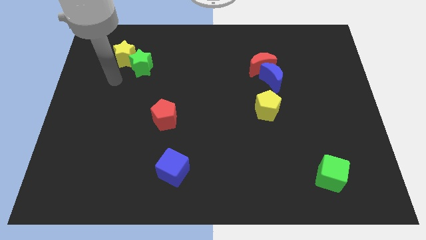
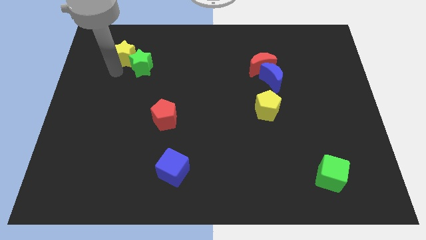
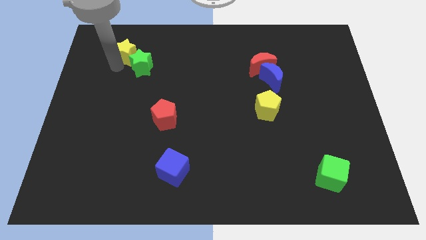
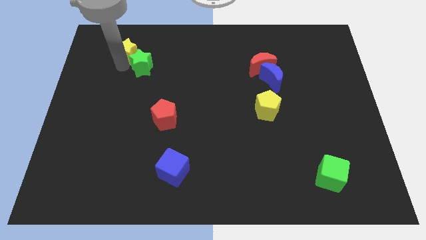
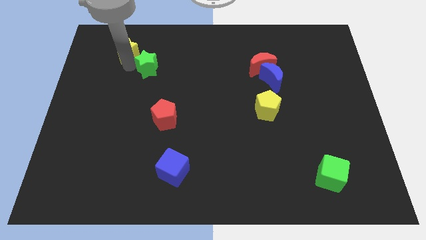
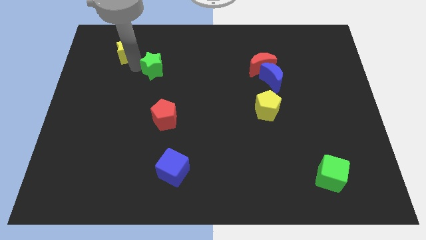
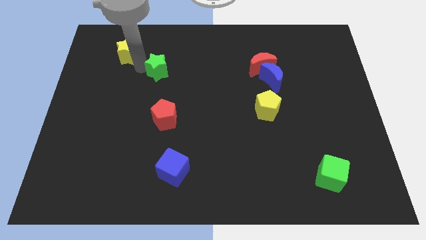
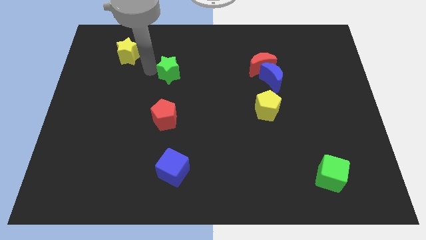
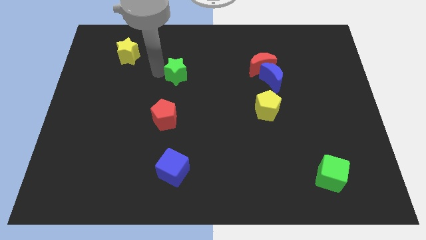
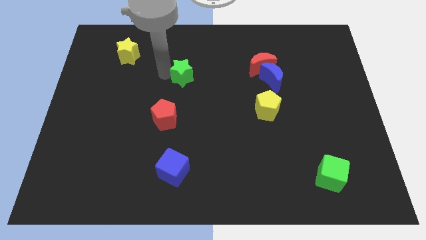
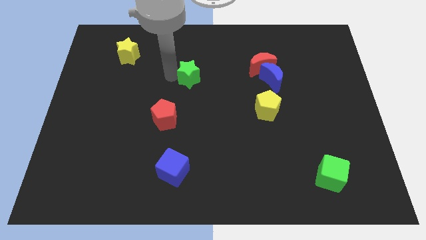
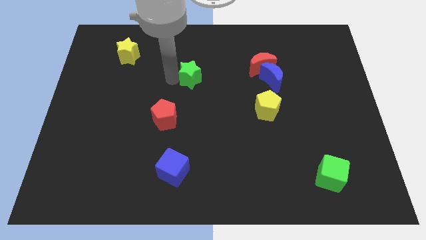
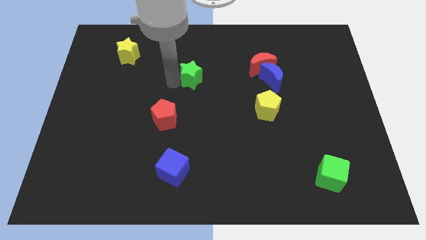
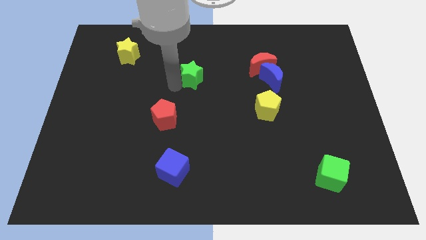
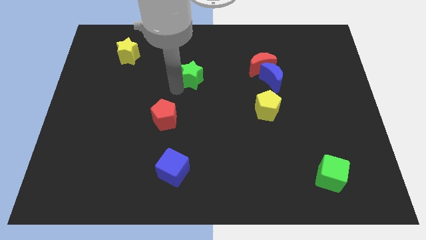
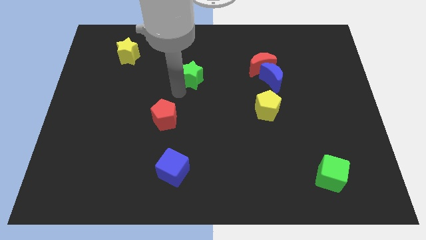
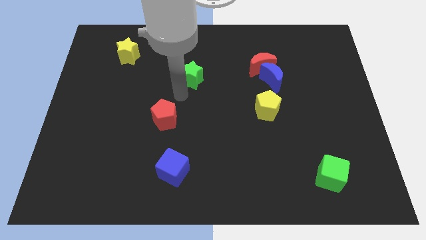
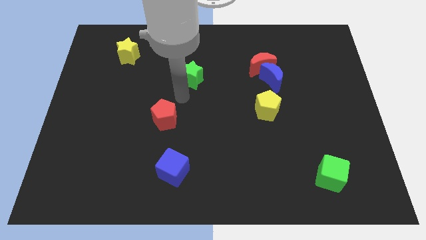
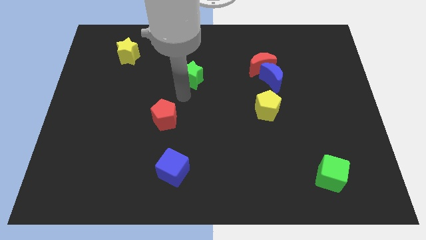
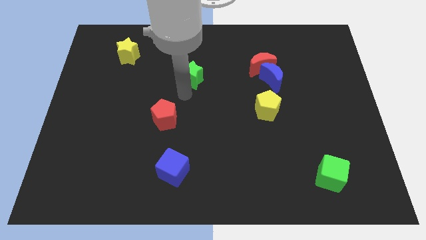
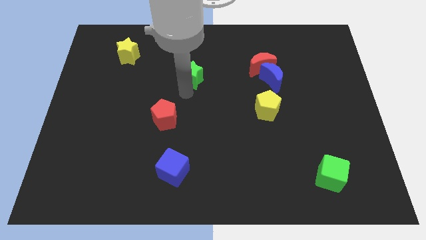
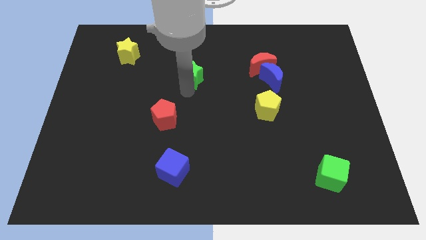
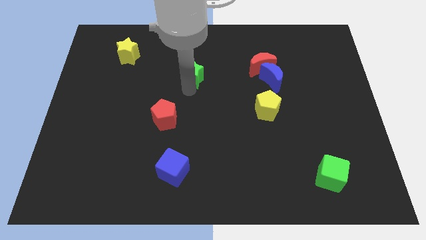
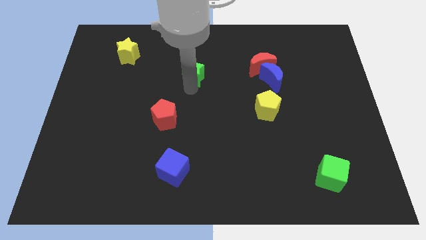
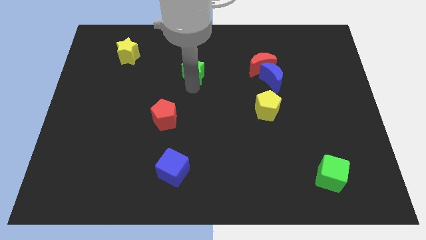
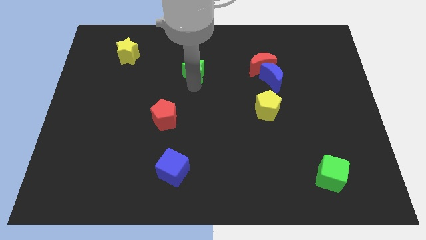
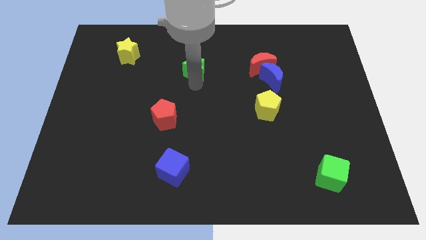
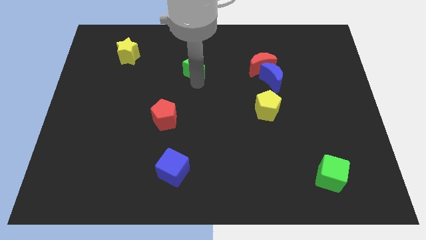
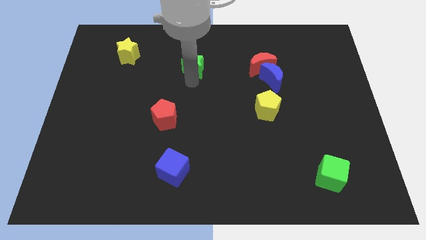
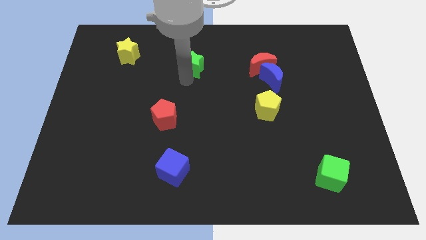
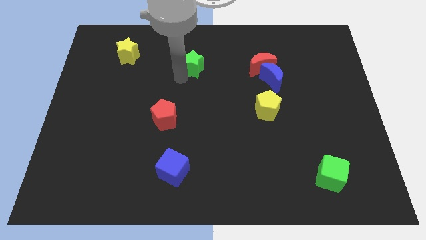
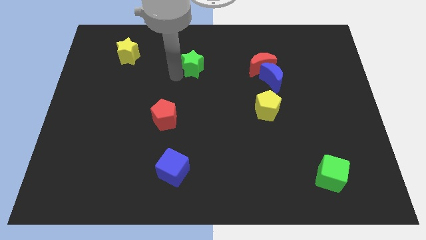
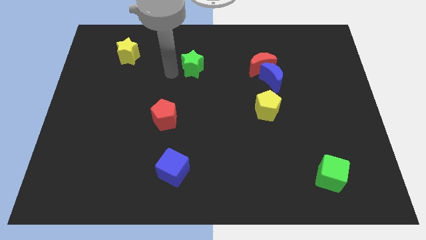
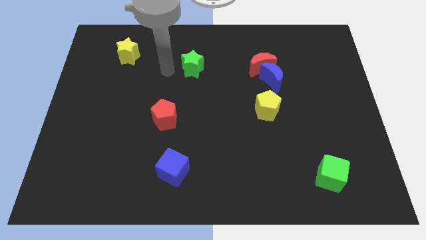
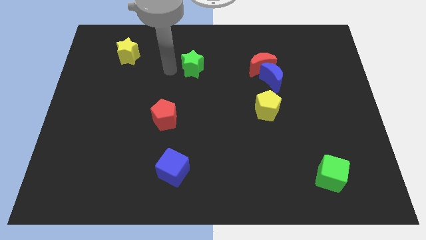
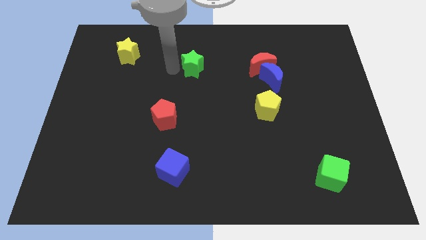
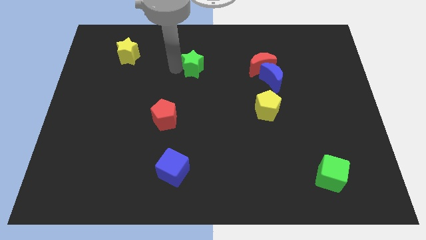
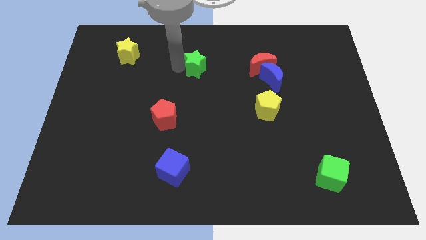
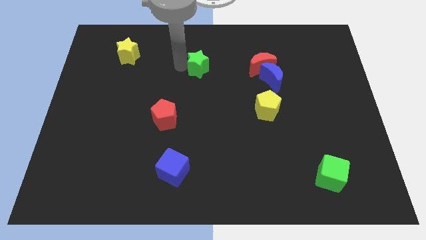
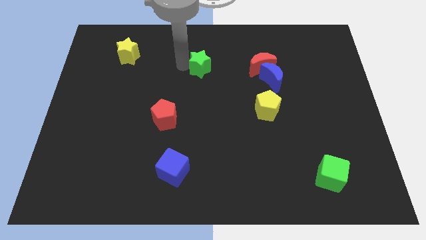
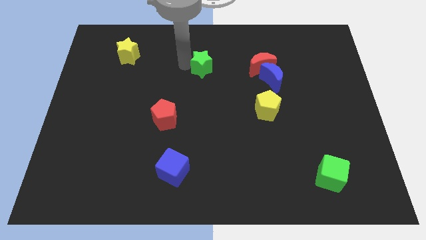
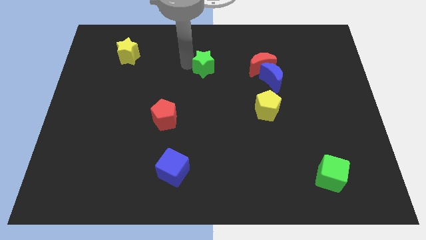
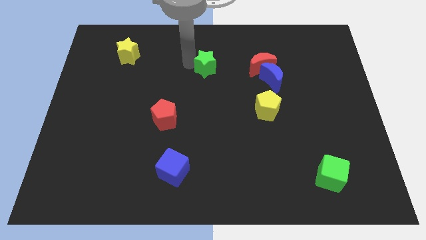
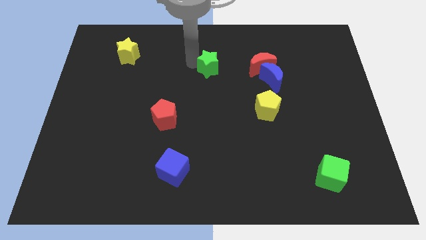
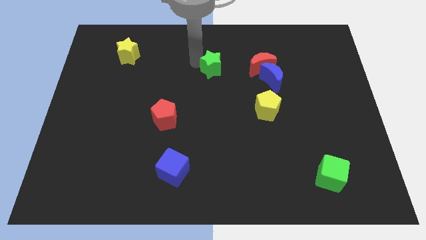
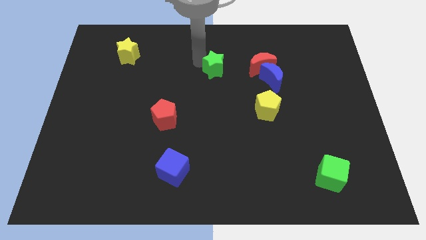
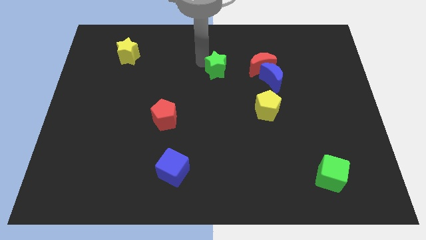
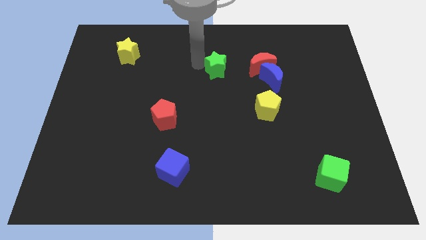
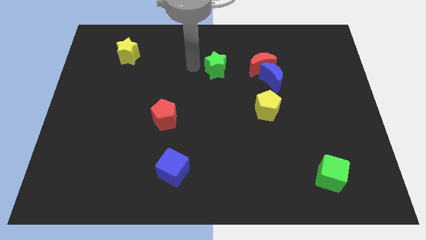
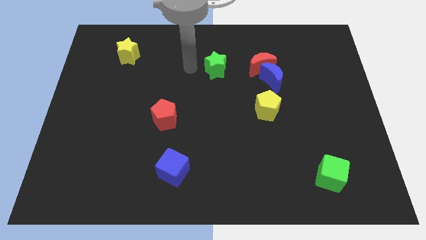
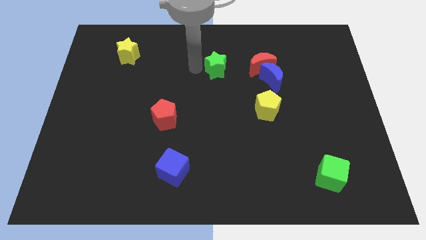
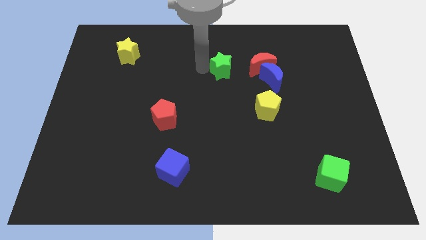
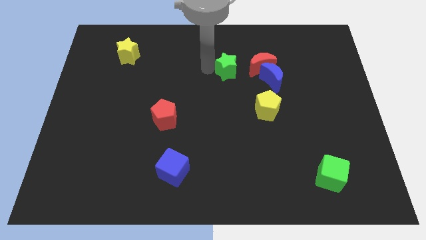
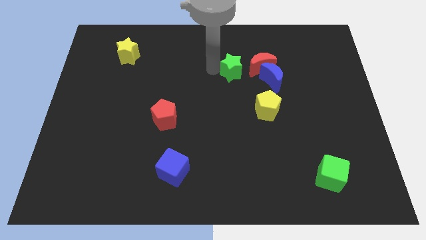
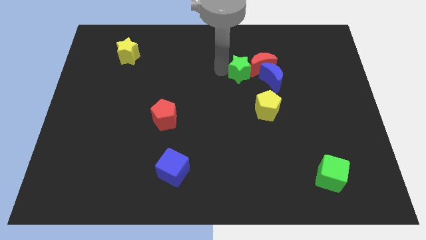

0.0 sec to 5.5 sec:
put the green star close to the red moon

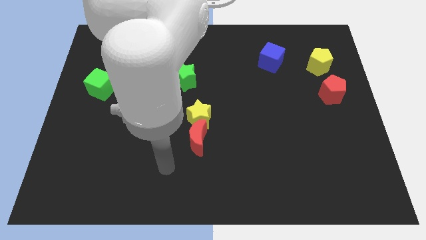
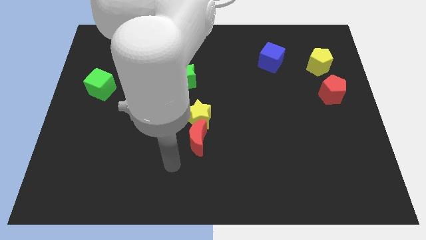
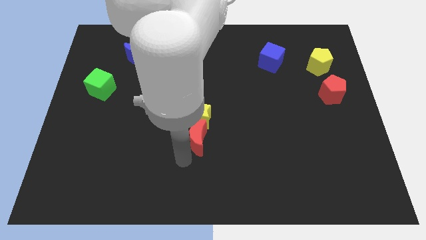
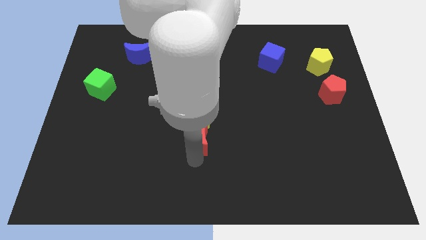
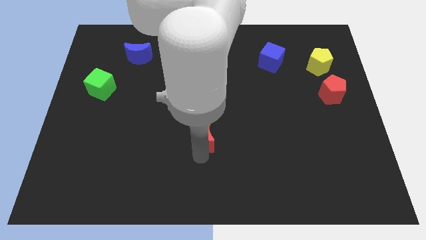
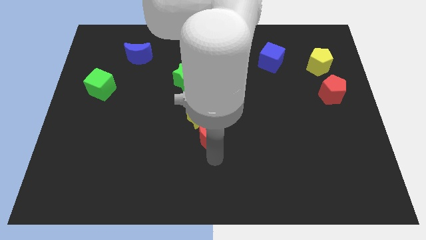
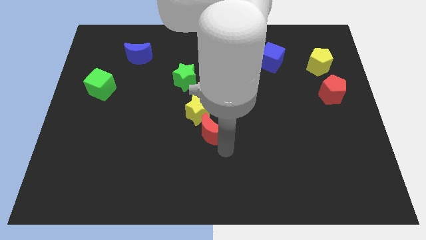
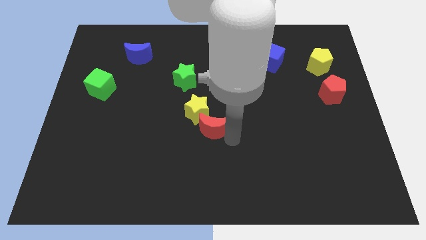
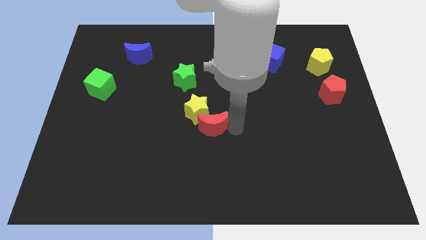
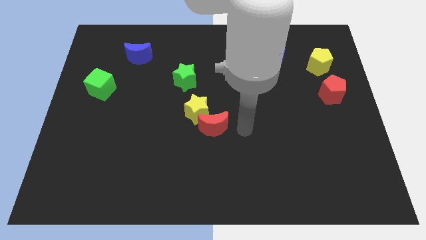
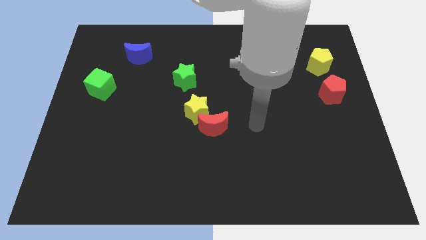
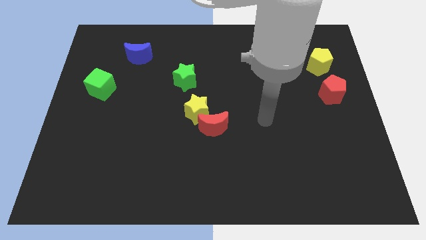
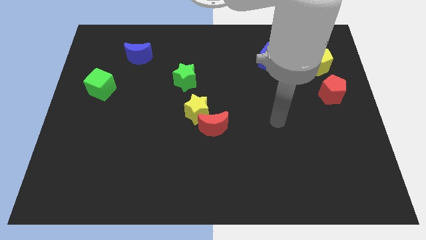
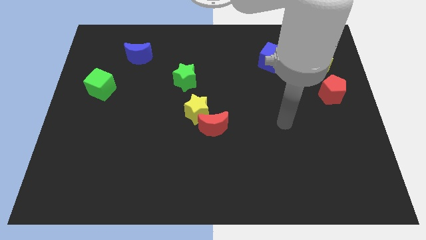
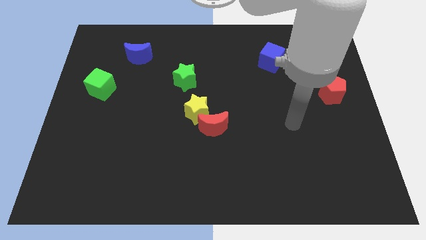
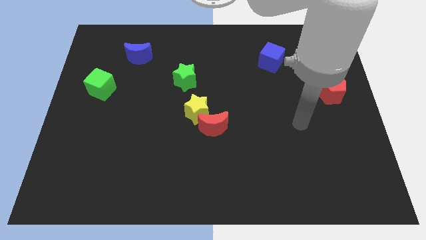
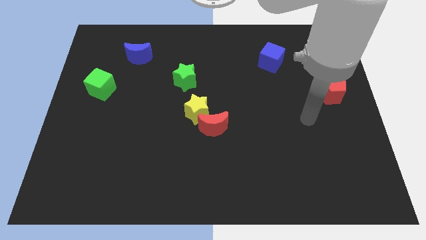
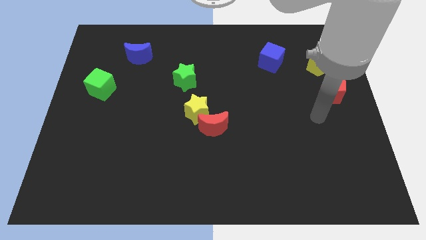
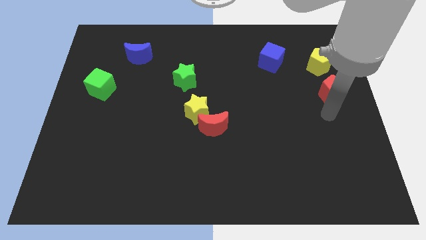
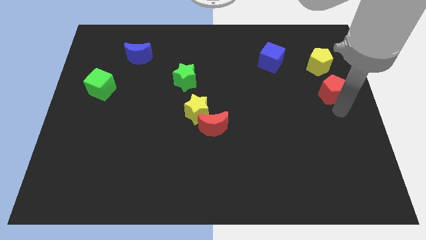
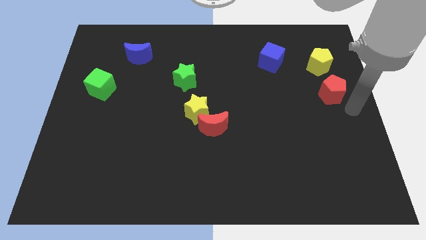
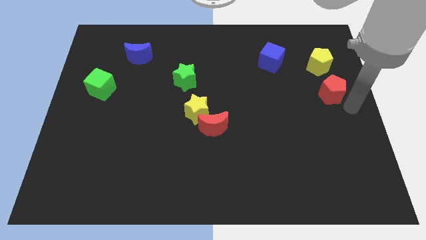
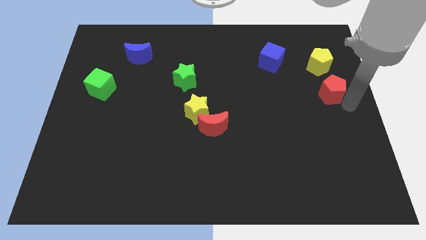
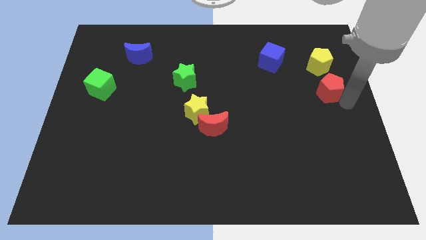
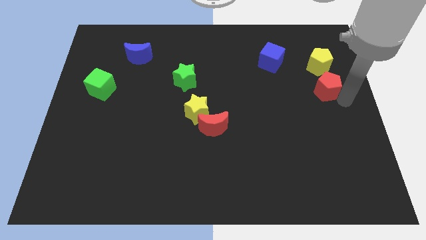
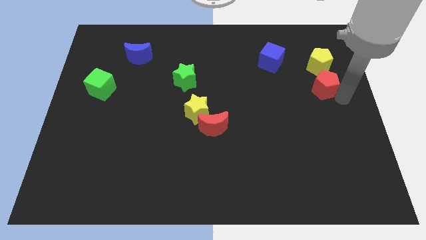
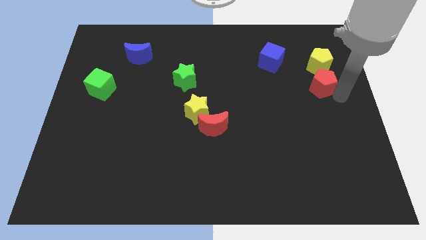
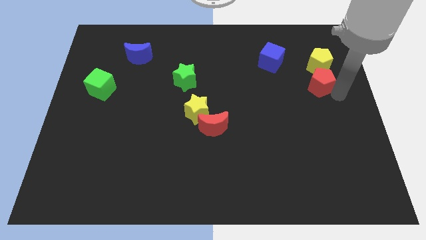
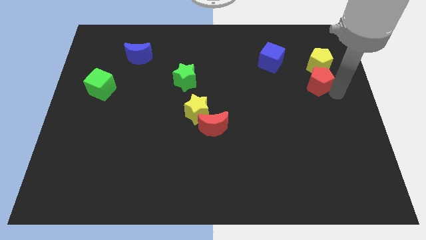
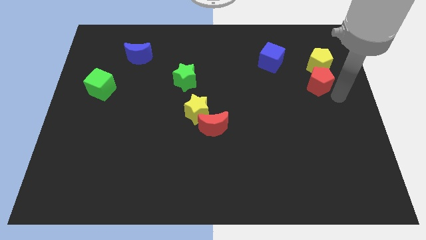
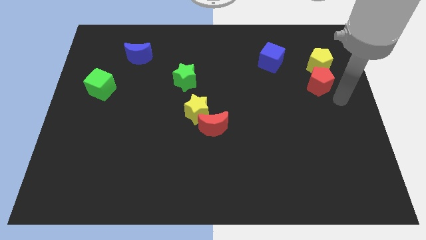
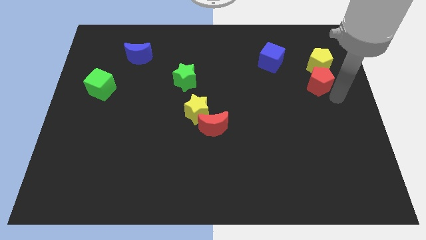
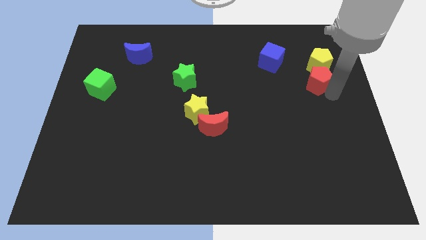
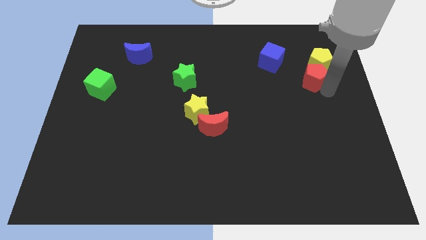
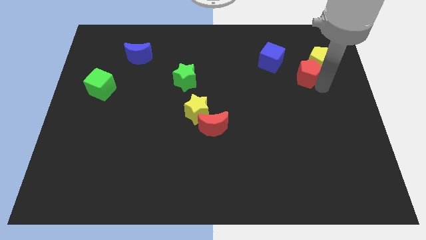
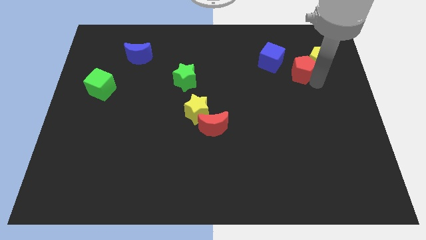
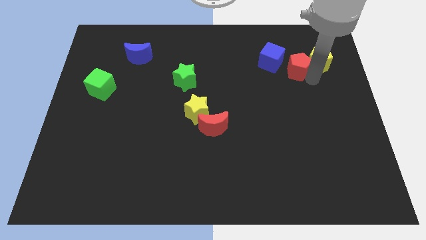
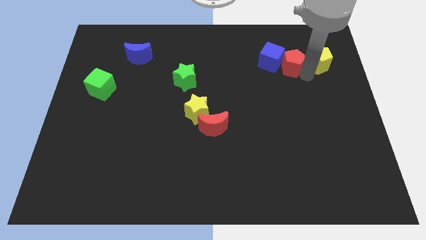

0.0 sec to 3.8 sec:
push the red pentagon to the blue cube
